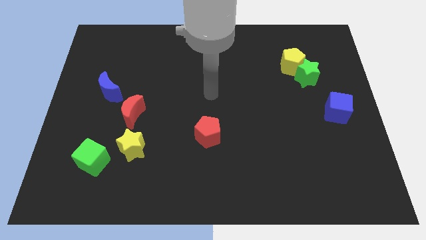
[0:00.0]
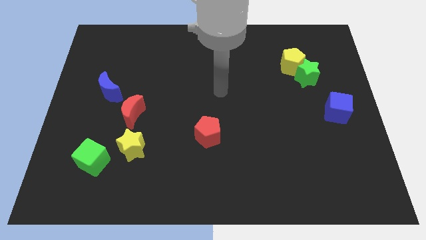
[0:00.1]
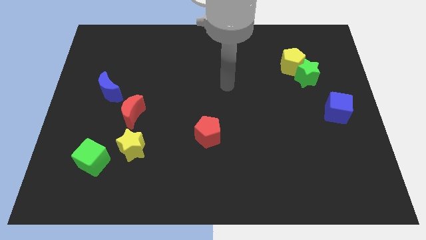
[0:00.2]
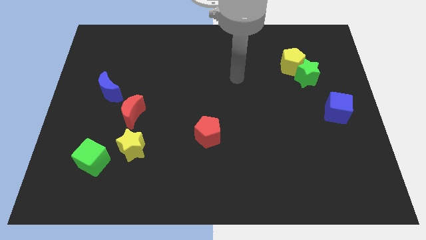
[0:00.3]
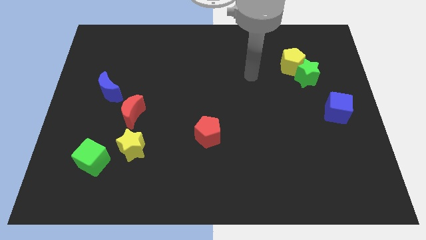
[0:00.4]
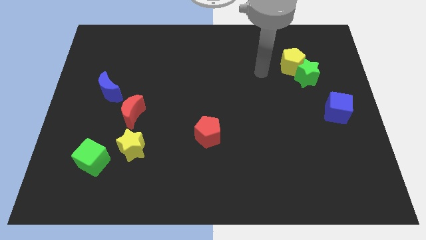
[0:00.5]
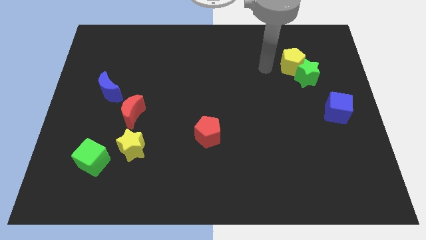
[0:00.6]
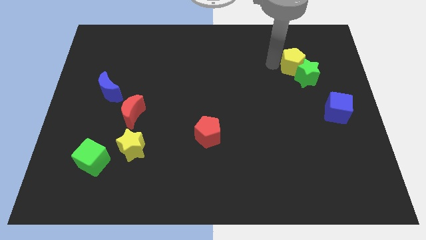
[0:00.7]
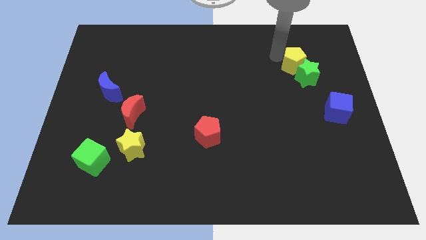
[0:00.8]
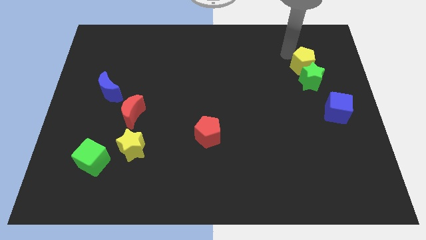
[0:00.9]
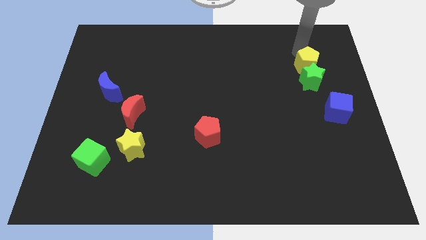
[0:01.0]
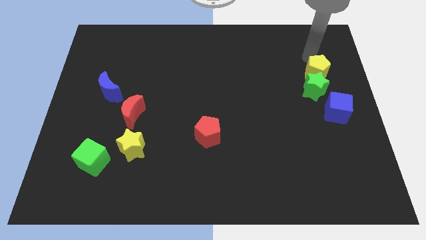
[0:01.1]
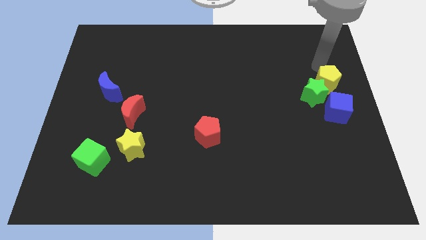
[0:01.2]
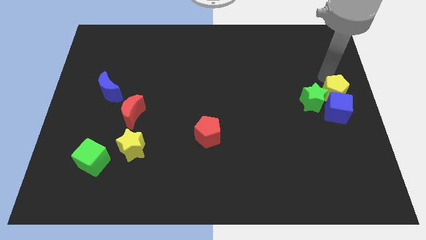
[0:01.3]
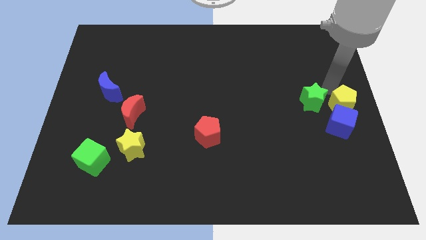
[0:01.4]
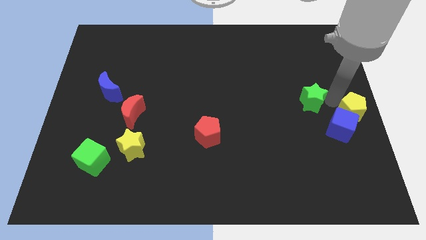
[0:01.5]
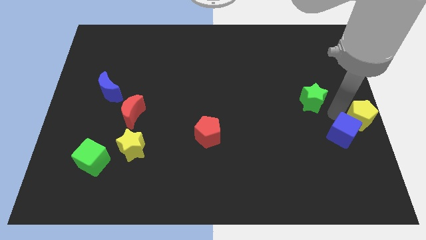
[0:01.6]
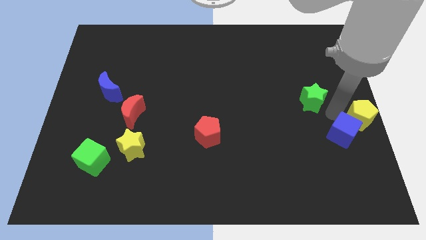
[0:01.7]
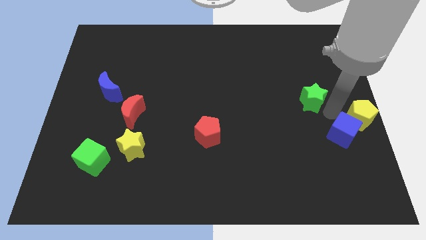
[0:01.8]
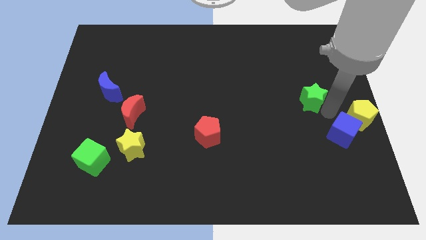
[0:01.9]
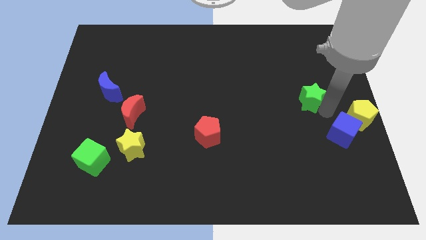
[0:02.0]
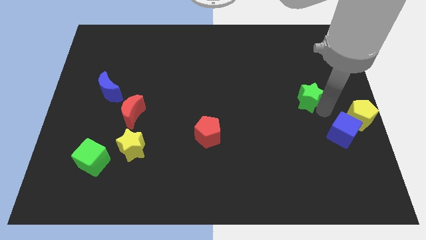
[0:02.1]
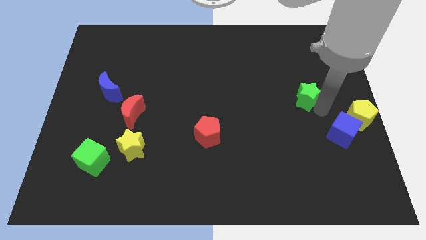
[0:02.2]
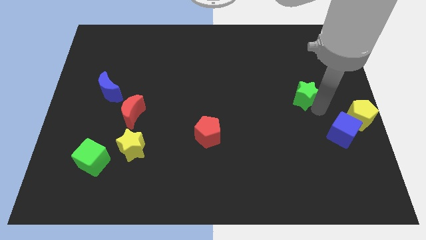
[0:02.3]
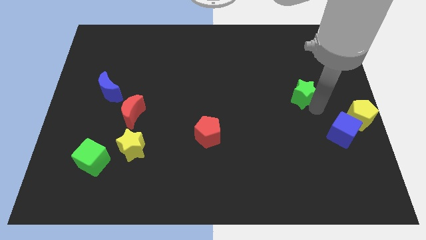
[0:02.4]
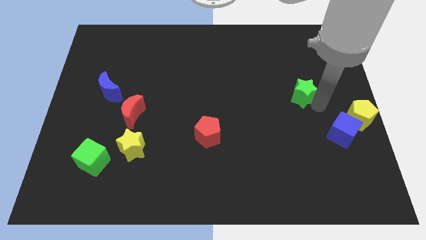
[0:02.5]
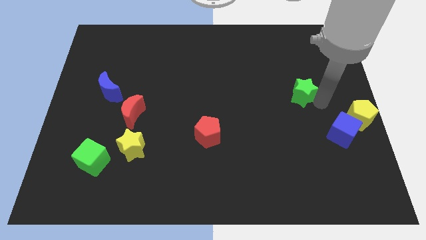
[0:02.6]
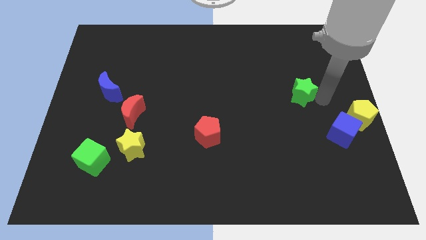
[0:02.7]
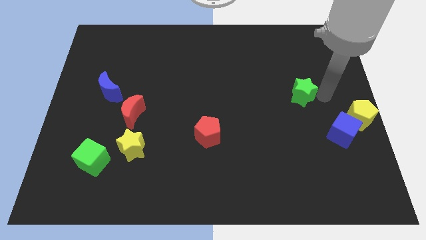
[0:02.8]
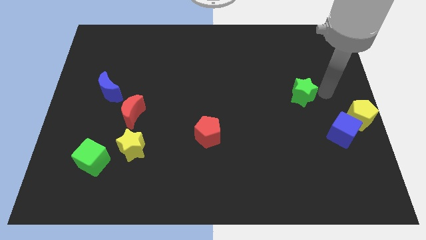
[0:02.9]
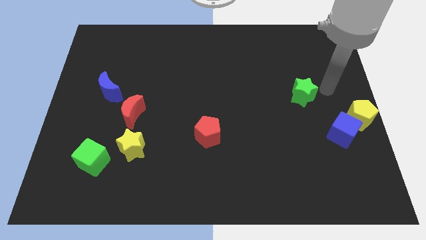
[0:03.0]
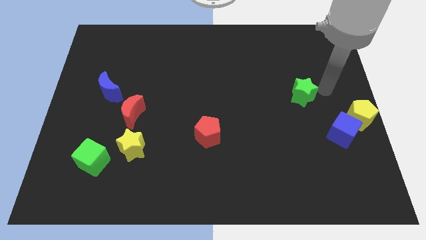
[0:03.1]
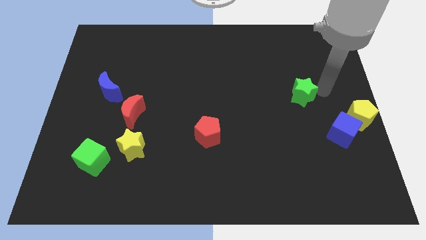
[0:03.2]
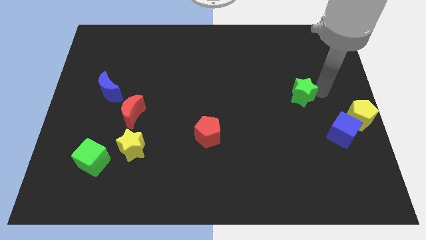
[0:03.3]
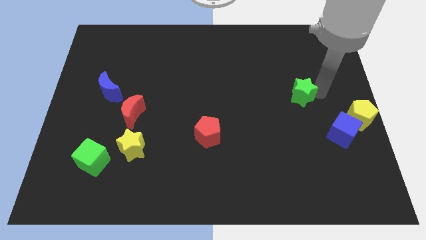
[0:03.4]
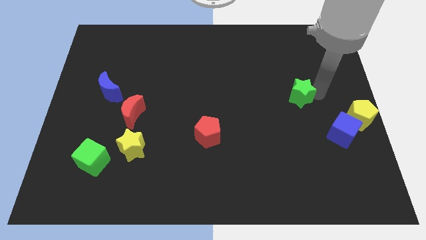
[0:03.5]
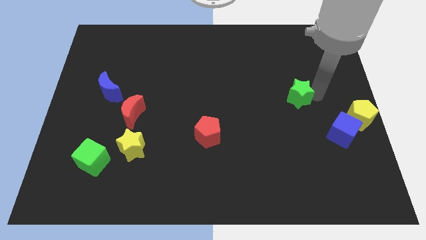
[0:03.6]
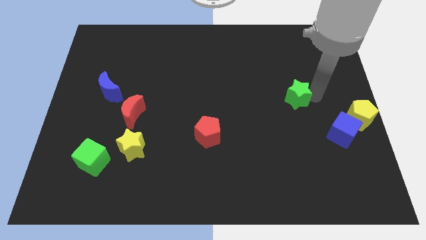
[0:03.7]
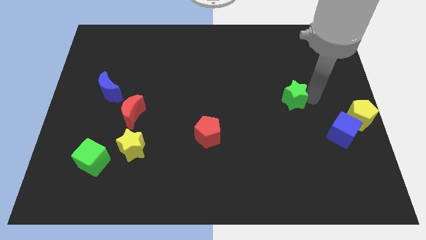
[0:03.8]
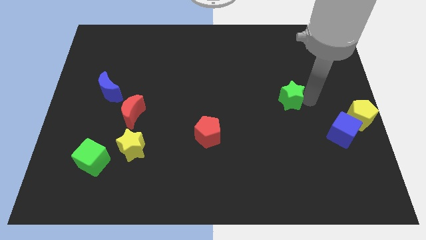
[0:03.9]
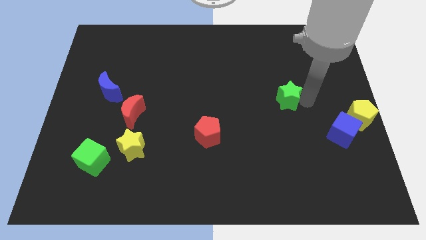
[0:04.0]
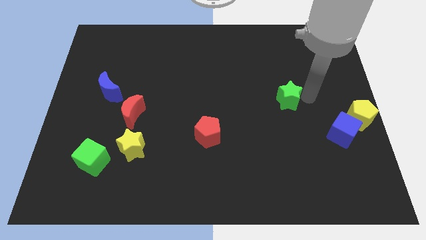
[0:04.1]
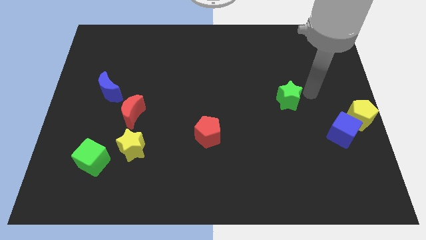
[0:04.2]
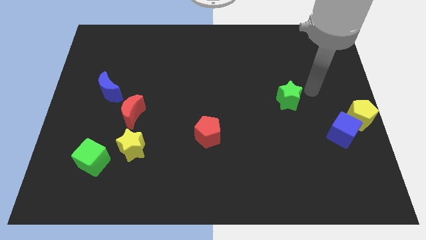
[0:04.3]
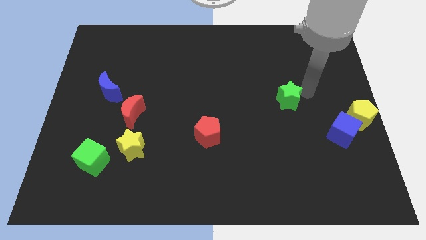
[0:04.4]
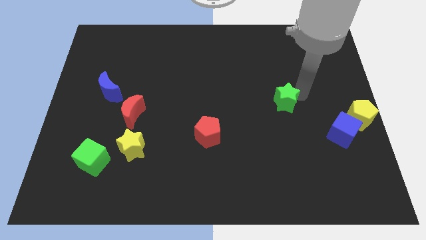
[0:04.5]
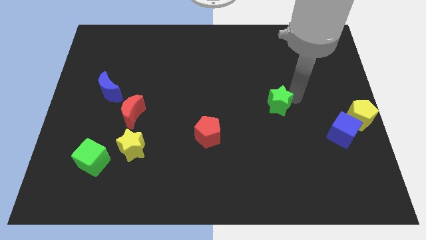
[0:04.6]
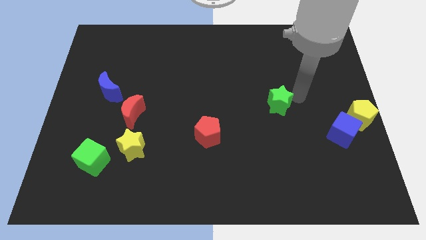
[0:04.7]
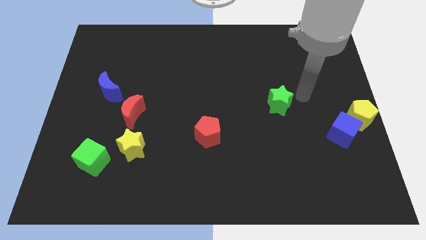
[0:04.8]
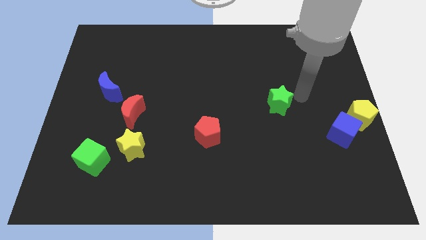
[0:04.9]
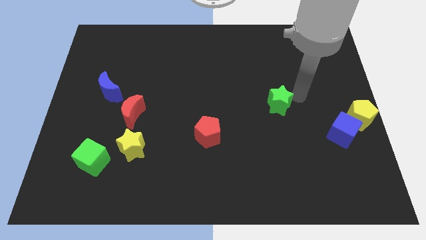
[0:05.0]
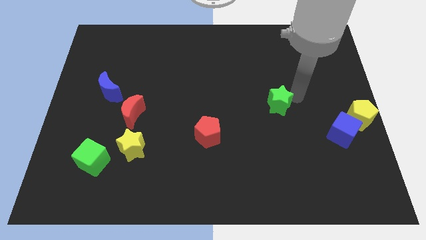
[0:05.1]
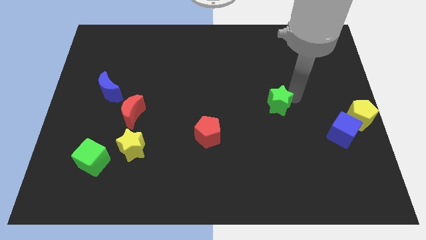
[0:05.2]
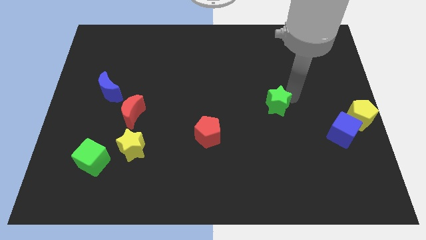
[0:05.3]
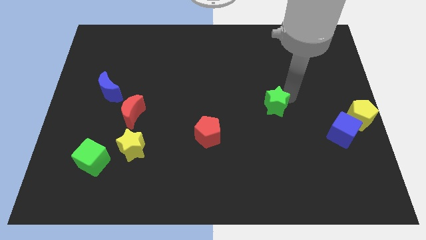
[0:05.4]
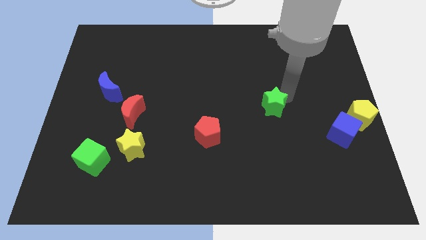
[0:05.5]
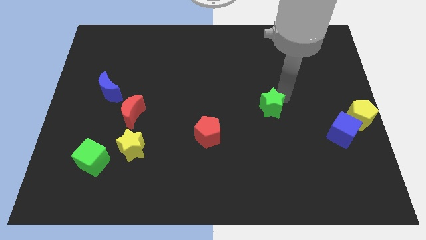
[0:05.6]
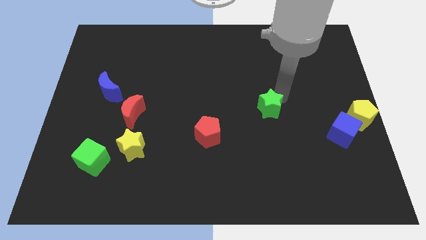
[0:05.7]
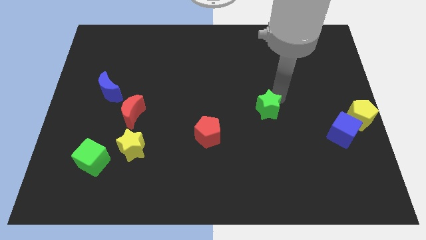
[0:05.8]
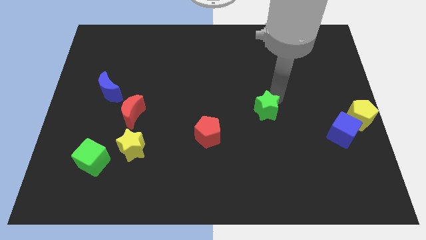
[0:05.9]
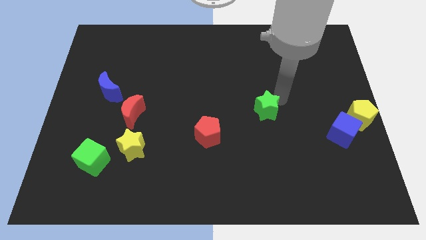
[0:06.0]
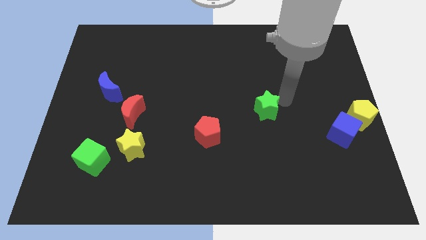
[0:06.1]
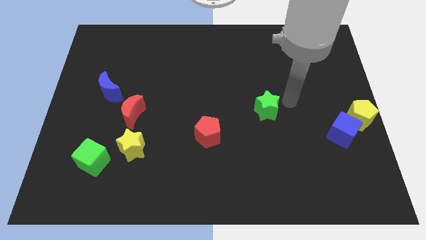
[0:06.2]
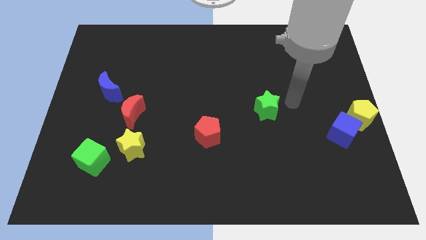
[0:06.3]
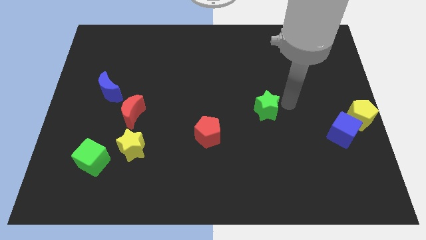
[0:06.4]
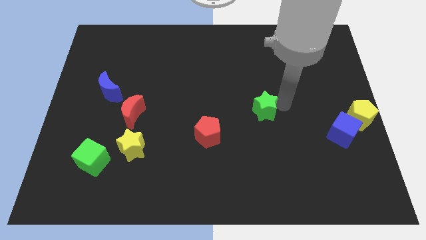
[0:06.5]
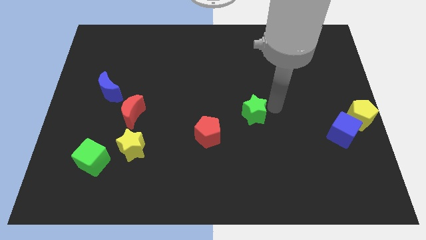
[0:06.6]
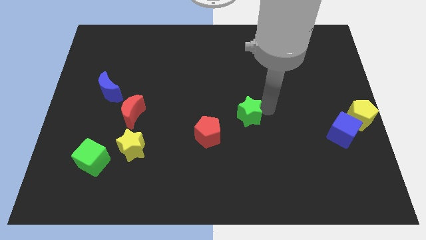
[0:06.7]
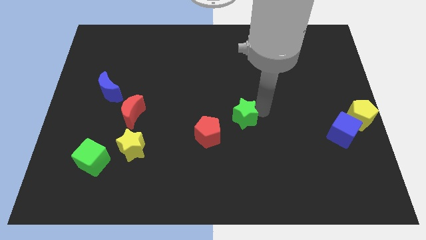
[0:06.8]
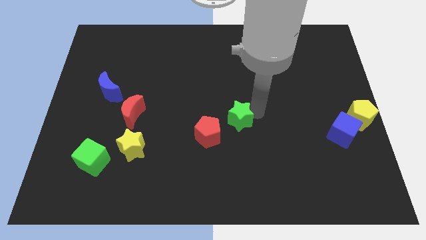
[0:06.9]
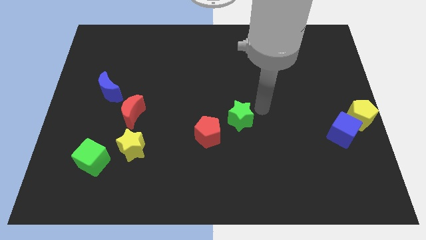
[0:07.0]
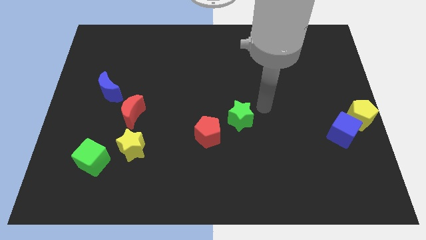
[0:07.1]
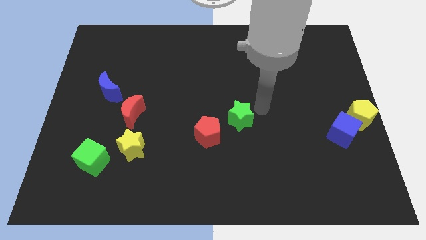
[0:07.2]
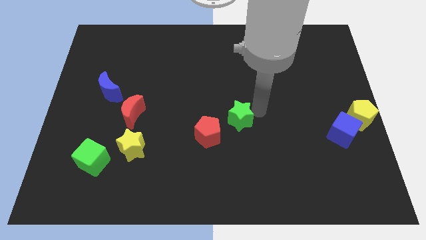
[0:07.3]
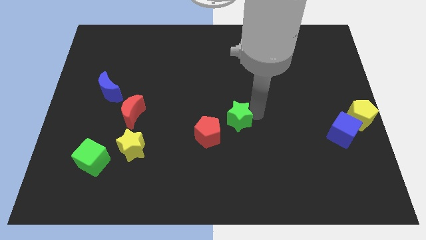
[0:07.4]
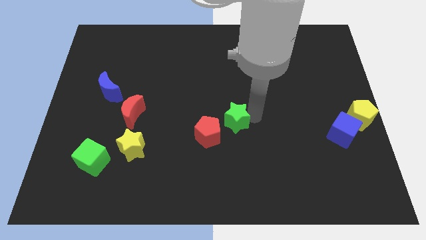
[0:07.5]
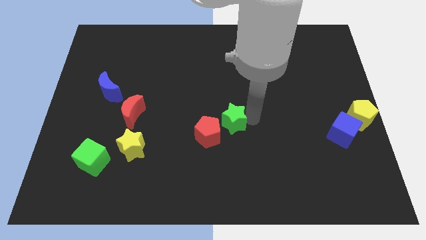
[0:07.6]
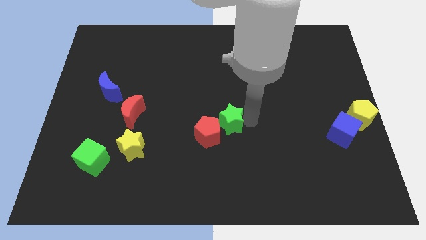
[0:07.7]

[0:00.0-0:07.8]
put the green star next to the red pentagon

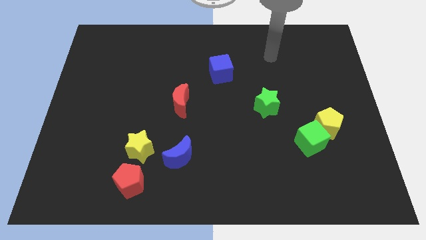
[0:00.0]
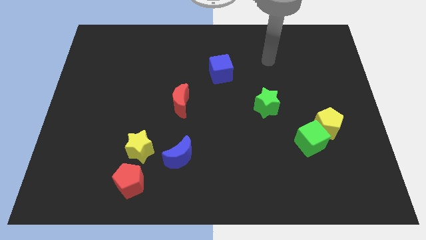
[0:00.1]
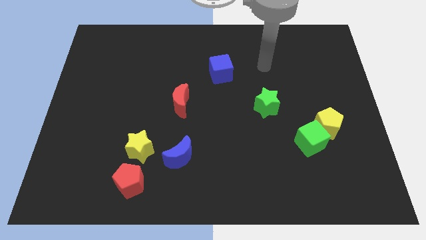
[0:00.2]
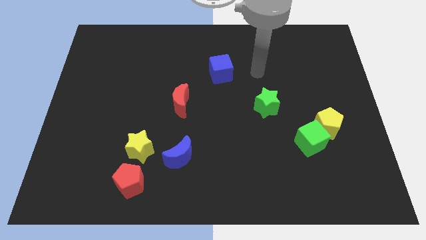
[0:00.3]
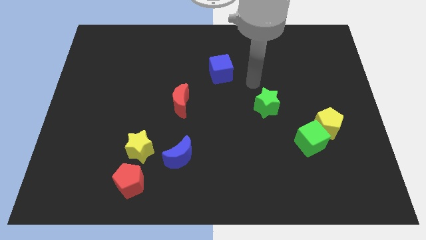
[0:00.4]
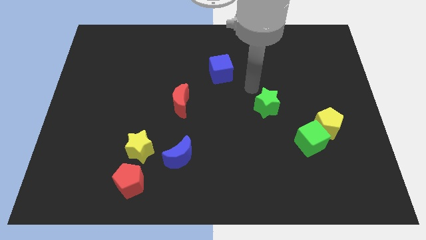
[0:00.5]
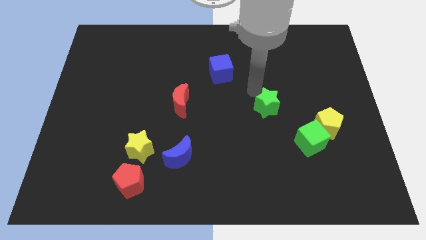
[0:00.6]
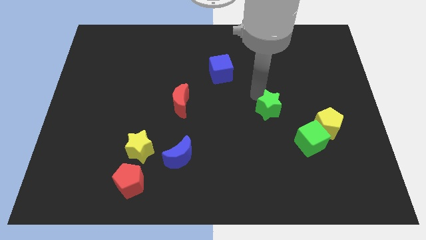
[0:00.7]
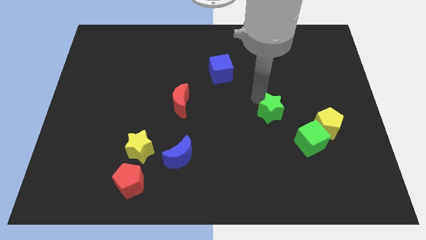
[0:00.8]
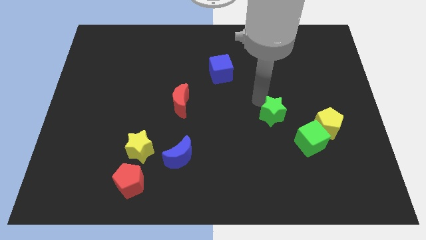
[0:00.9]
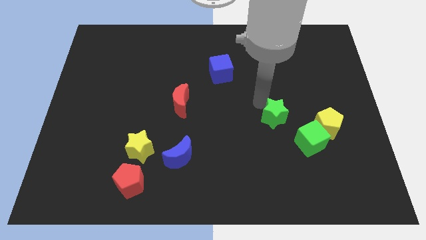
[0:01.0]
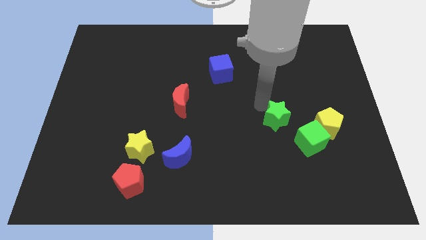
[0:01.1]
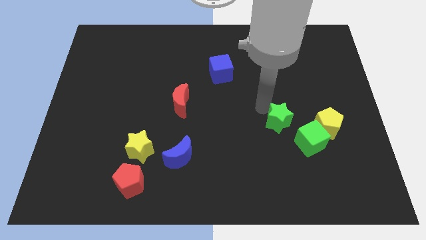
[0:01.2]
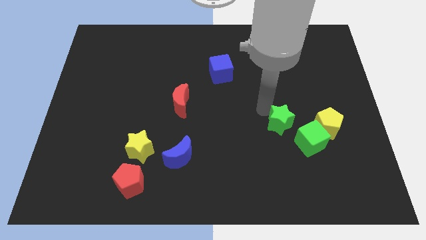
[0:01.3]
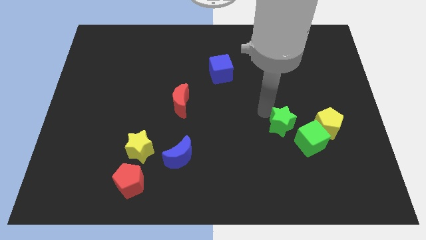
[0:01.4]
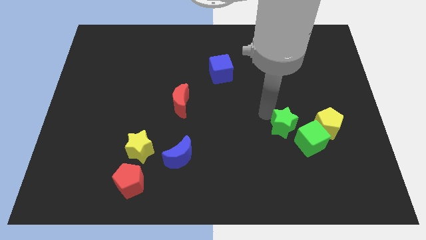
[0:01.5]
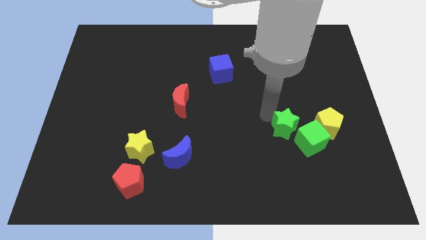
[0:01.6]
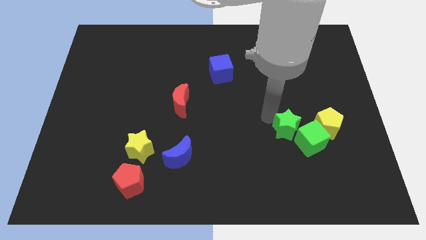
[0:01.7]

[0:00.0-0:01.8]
put the green star close to the green cube
